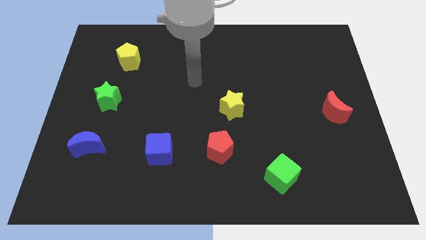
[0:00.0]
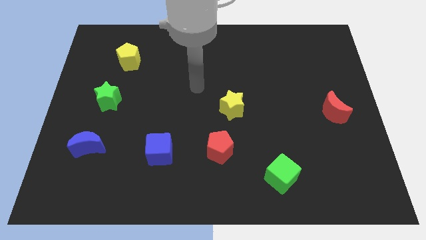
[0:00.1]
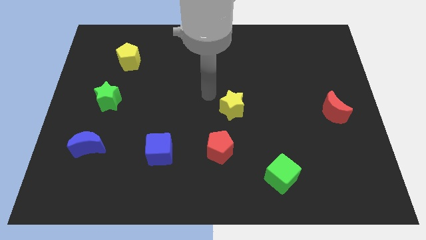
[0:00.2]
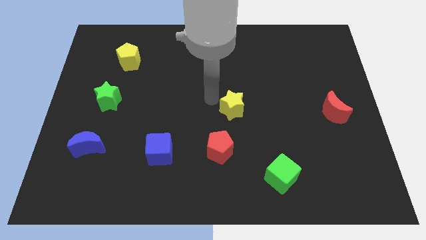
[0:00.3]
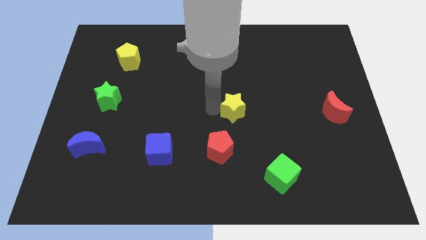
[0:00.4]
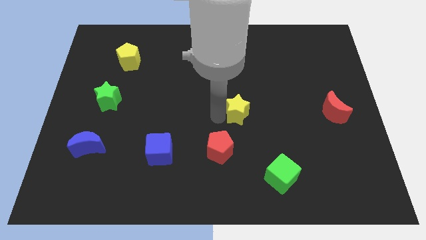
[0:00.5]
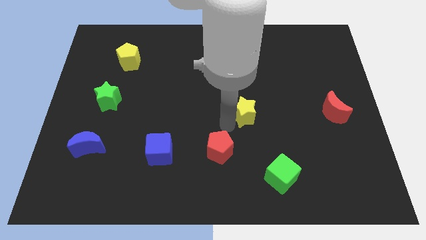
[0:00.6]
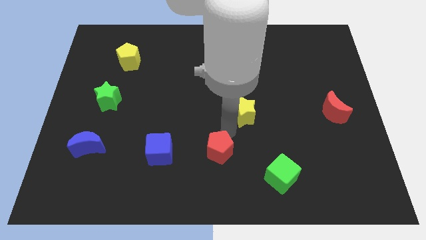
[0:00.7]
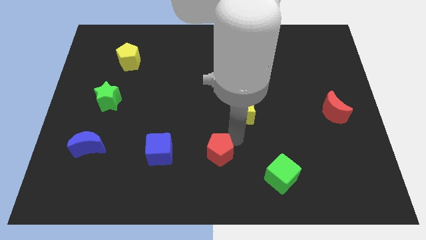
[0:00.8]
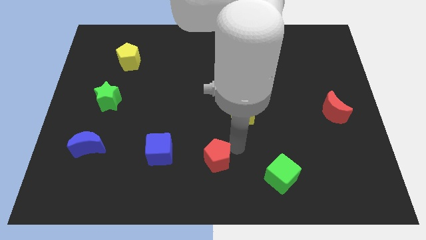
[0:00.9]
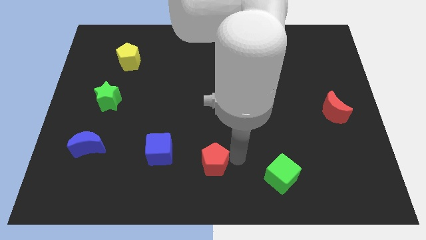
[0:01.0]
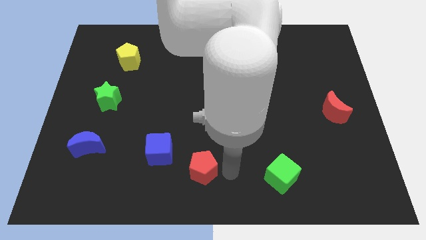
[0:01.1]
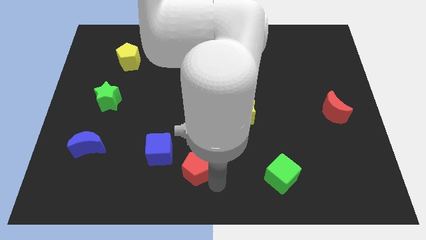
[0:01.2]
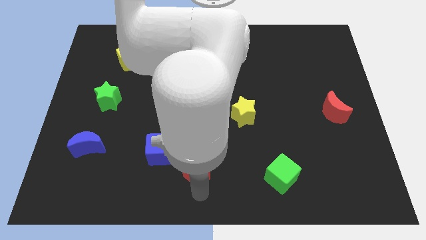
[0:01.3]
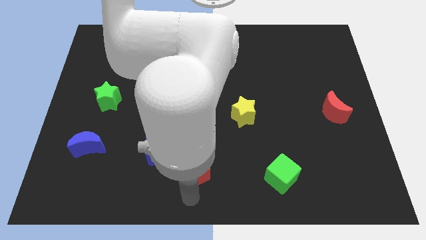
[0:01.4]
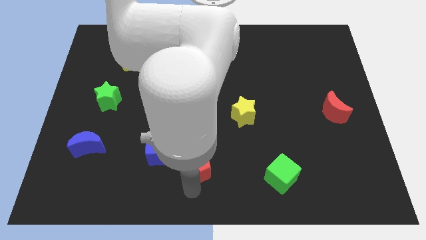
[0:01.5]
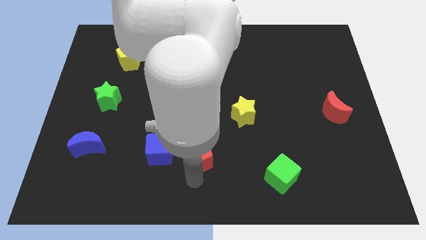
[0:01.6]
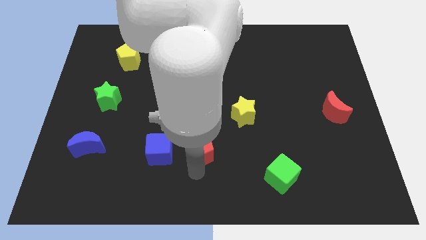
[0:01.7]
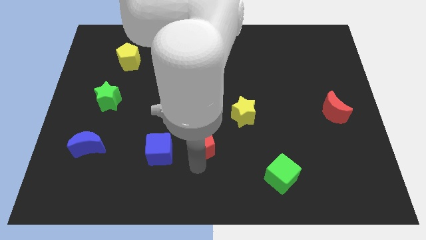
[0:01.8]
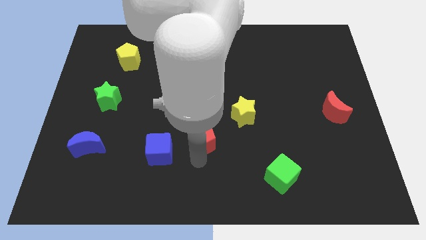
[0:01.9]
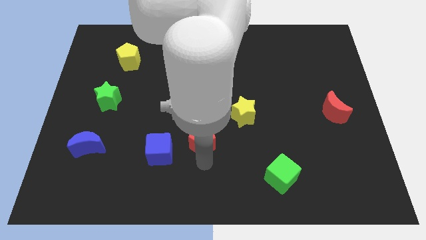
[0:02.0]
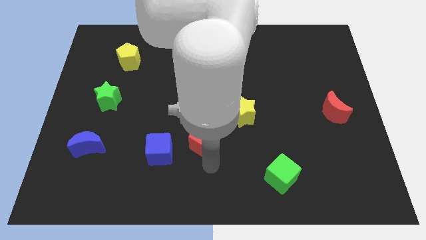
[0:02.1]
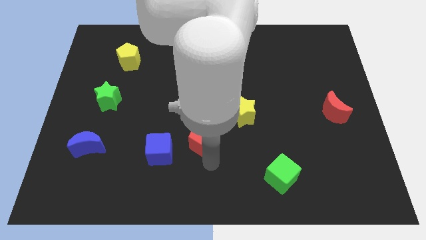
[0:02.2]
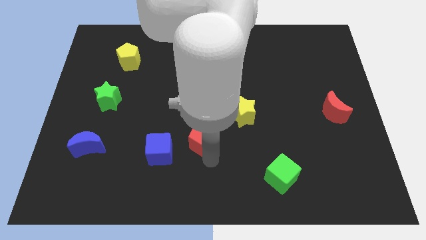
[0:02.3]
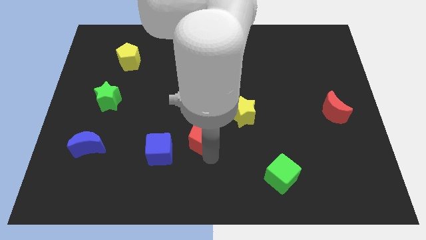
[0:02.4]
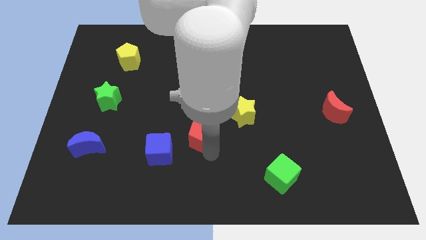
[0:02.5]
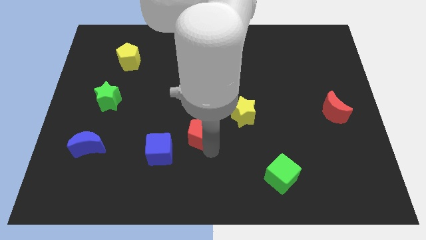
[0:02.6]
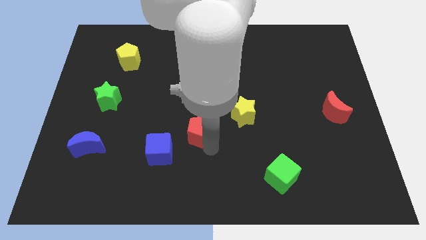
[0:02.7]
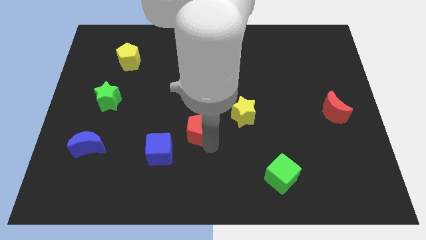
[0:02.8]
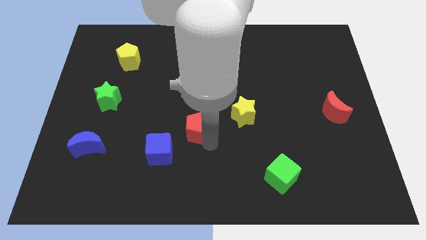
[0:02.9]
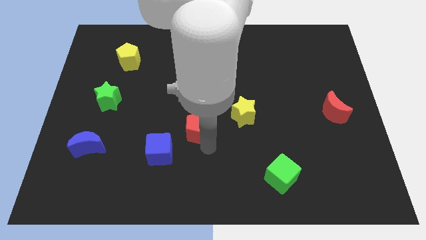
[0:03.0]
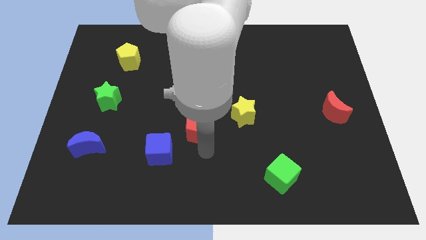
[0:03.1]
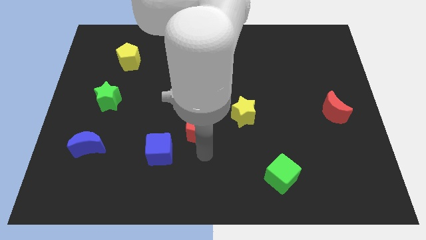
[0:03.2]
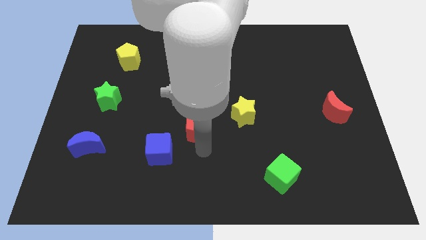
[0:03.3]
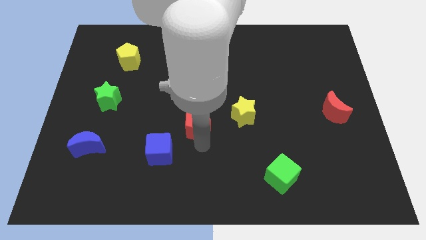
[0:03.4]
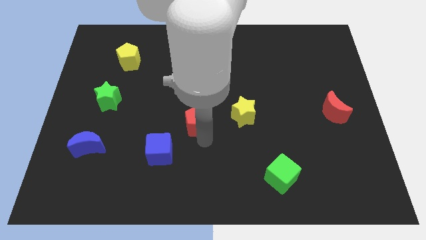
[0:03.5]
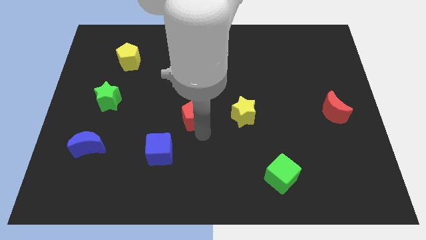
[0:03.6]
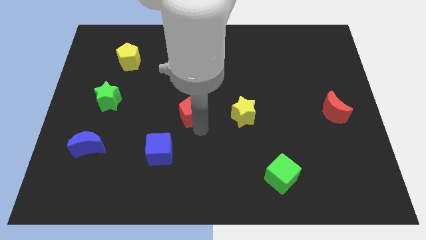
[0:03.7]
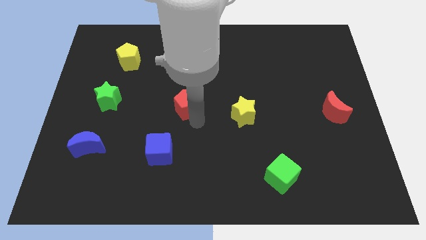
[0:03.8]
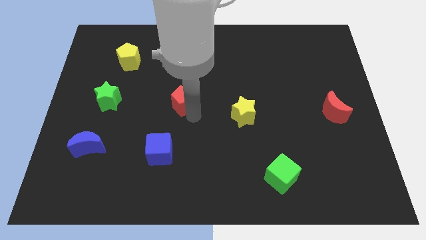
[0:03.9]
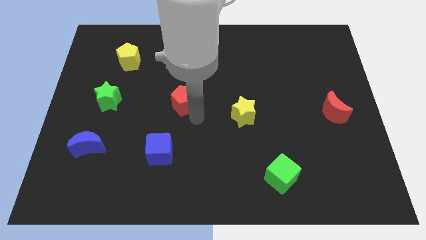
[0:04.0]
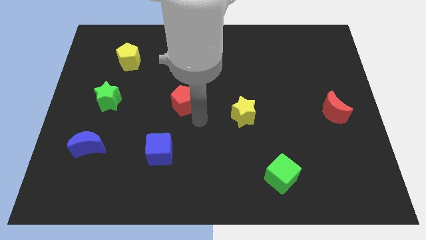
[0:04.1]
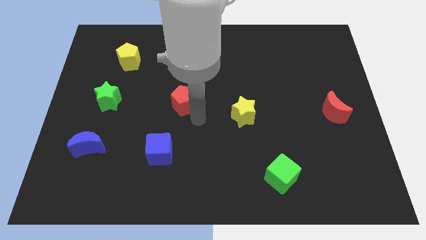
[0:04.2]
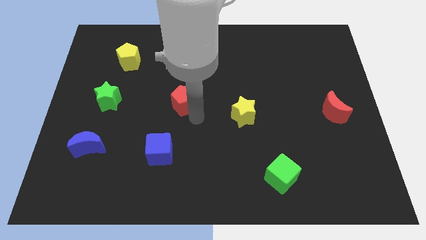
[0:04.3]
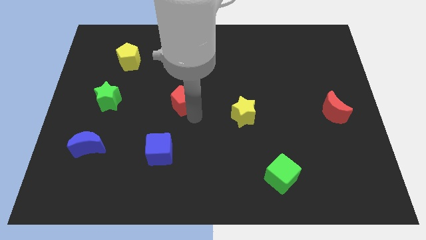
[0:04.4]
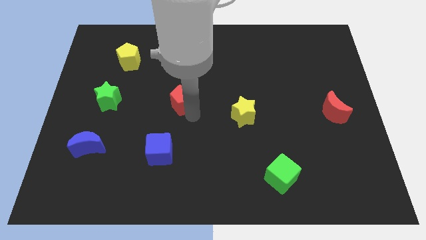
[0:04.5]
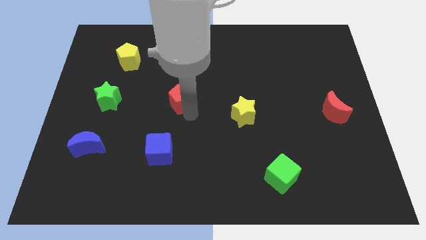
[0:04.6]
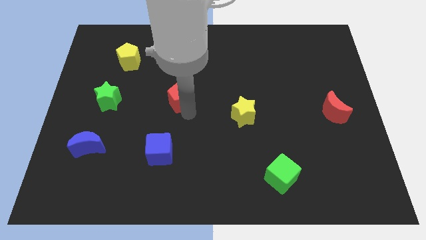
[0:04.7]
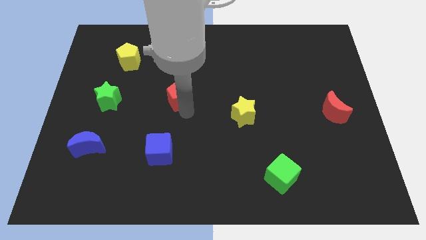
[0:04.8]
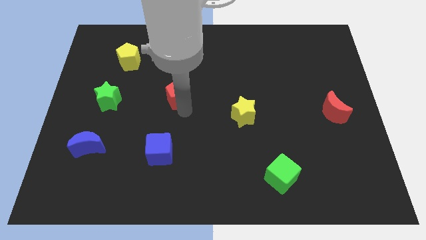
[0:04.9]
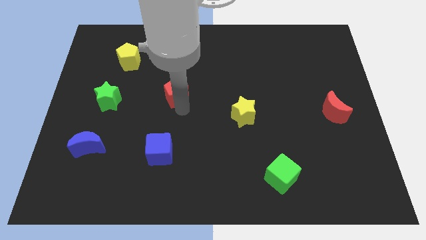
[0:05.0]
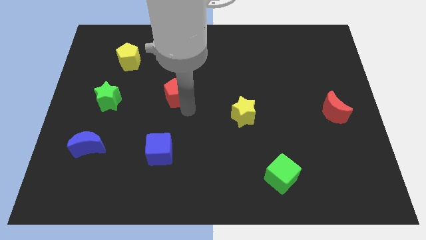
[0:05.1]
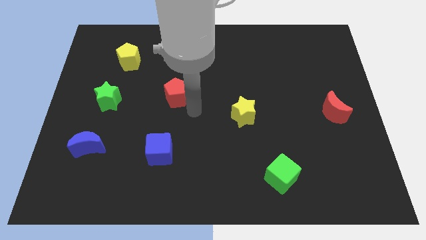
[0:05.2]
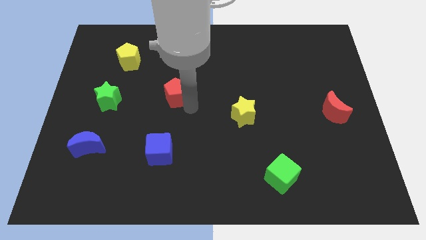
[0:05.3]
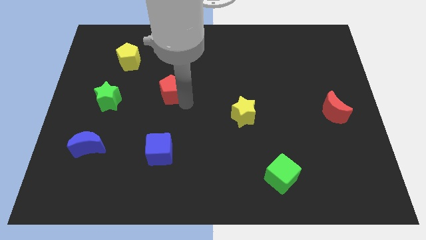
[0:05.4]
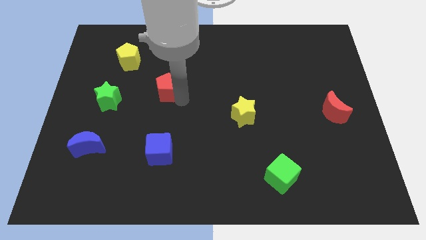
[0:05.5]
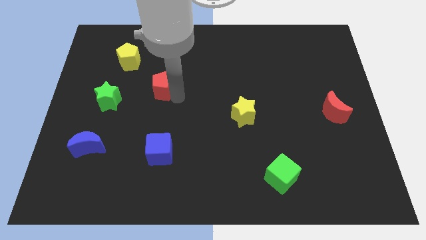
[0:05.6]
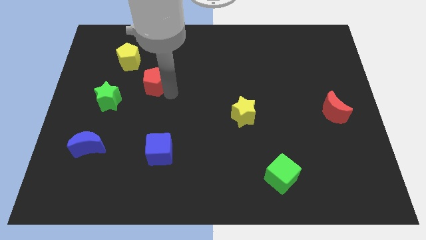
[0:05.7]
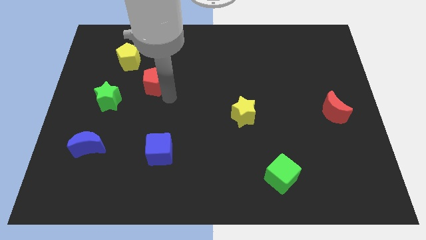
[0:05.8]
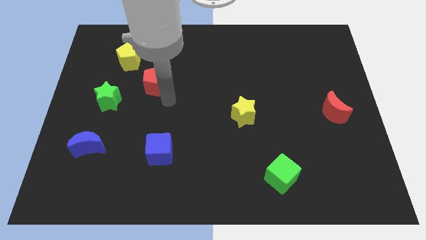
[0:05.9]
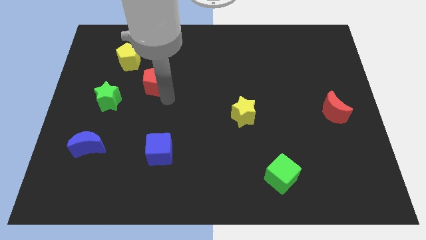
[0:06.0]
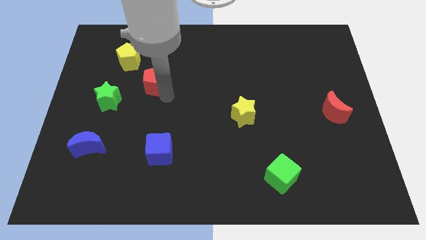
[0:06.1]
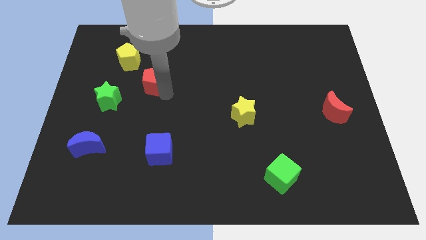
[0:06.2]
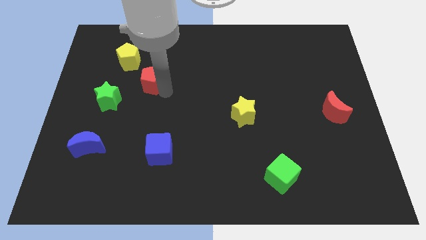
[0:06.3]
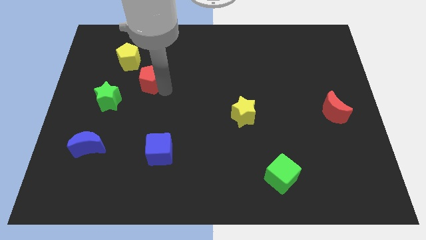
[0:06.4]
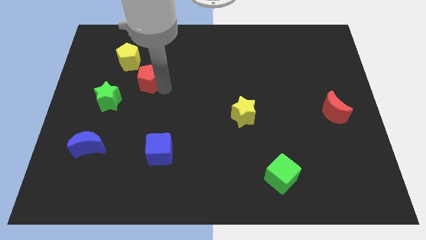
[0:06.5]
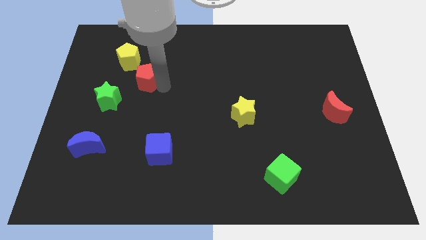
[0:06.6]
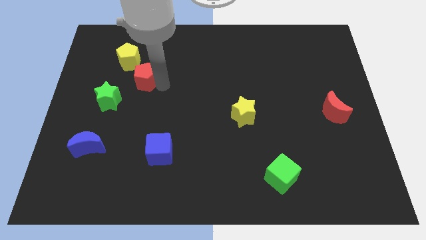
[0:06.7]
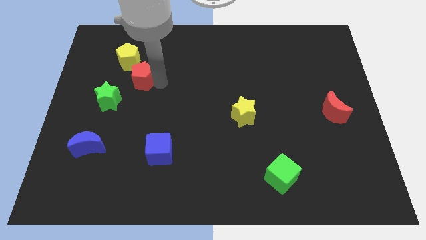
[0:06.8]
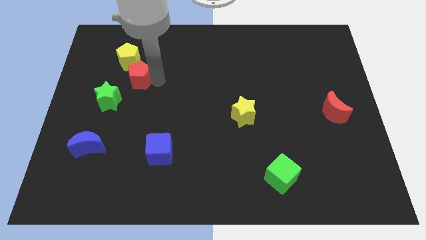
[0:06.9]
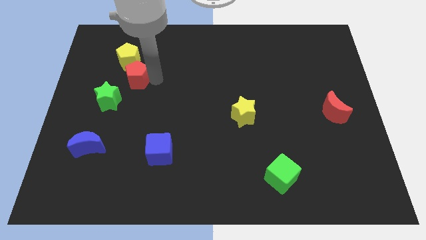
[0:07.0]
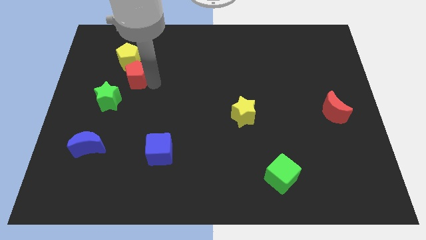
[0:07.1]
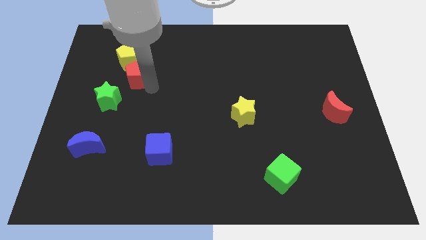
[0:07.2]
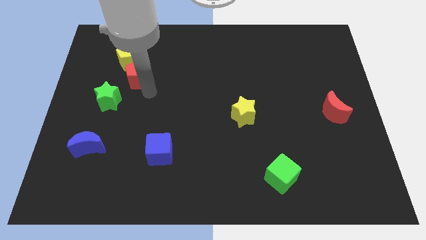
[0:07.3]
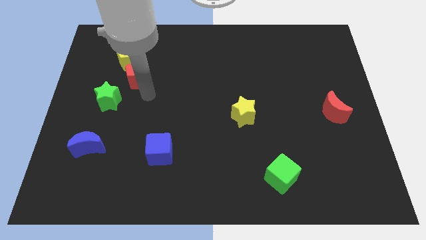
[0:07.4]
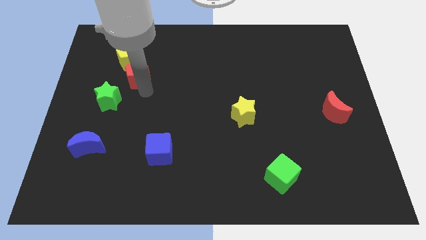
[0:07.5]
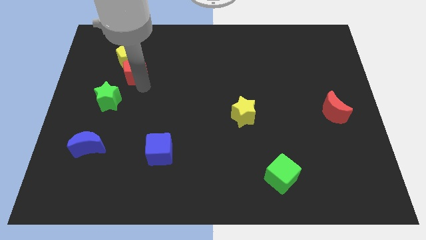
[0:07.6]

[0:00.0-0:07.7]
move the red pentagon next to the yellow pentagon

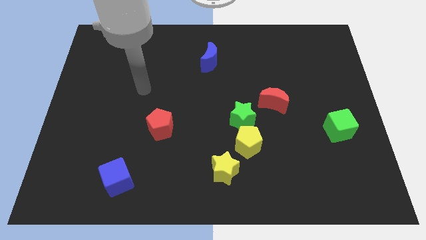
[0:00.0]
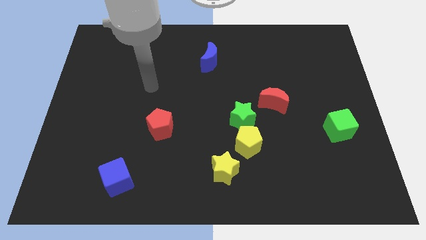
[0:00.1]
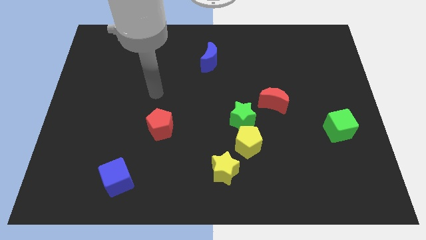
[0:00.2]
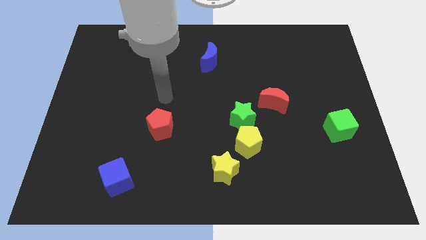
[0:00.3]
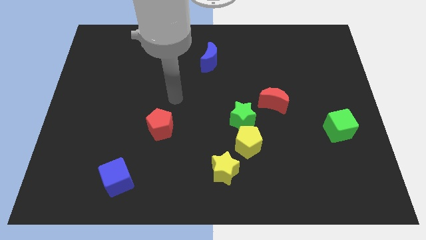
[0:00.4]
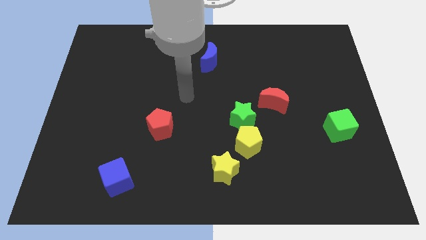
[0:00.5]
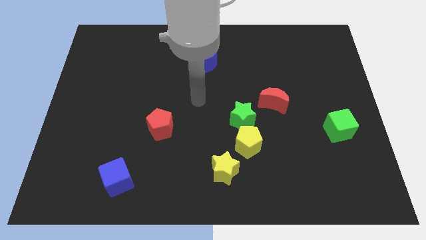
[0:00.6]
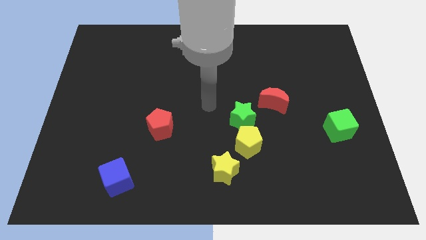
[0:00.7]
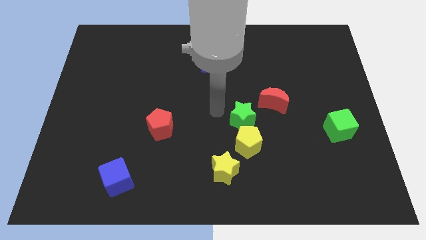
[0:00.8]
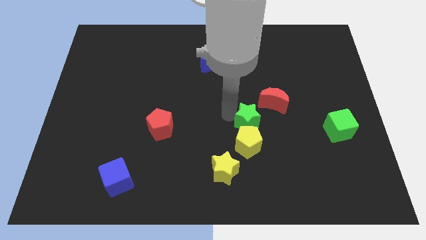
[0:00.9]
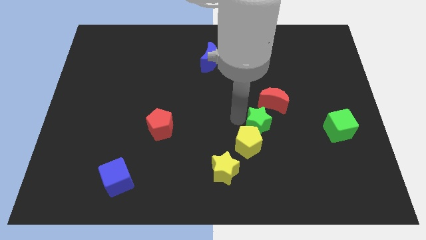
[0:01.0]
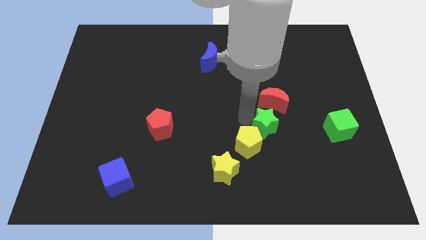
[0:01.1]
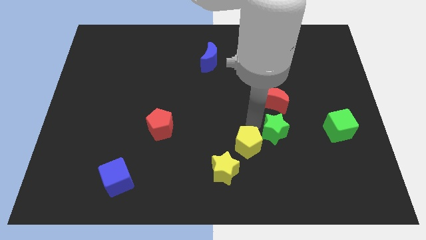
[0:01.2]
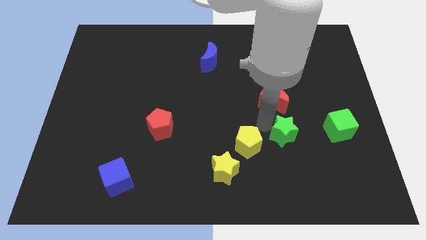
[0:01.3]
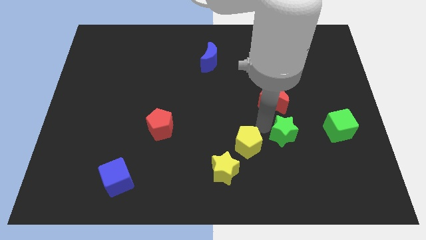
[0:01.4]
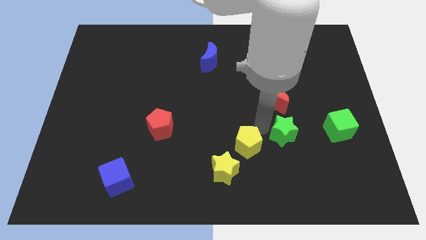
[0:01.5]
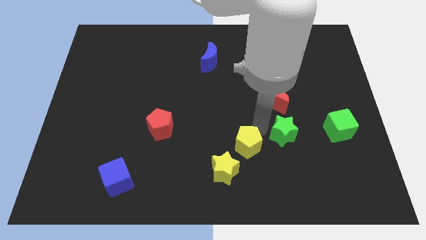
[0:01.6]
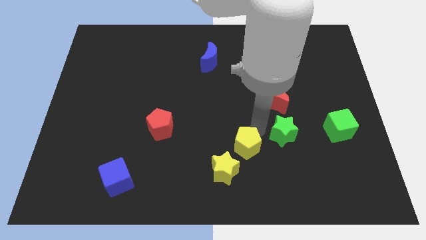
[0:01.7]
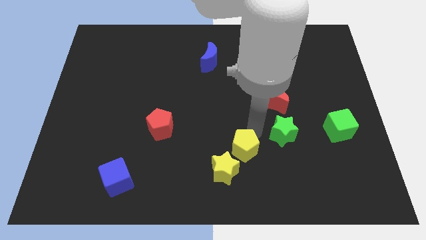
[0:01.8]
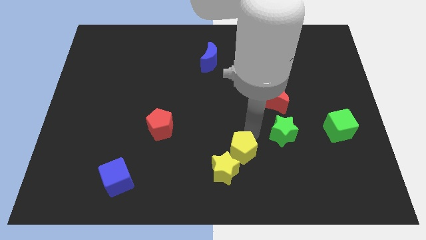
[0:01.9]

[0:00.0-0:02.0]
move the yellow pentagon to the yellow star
